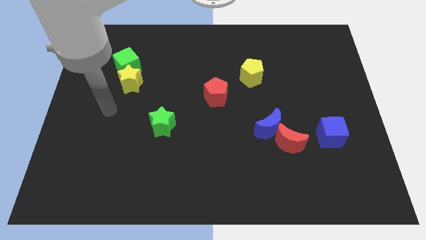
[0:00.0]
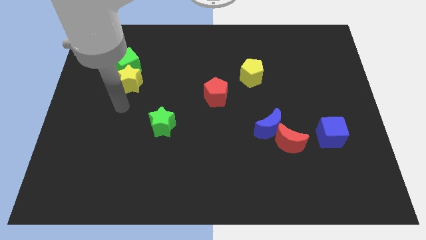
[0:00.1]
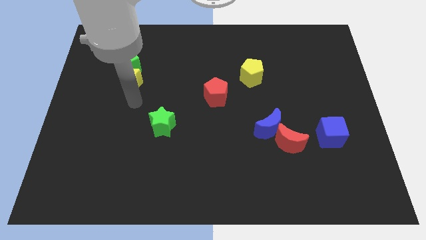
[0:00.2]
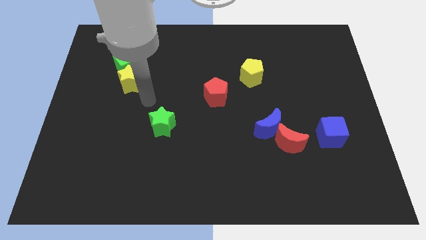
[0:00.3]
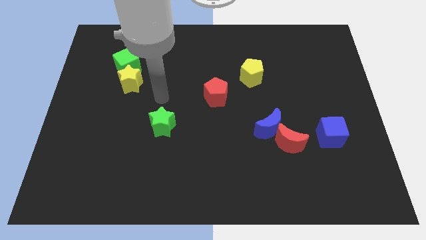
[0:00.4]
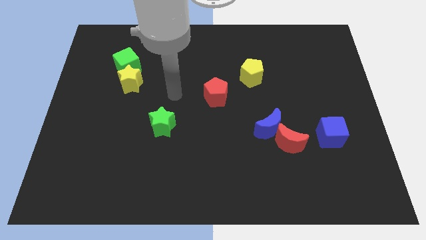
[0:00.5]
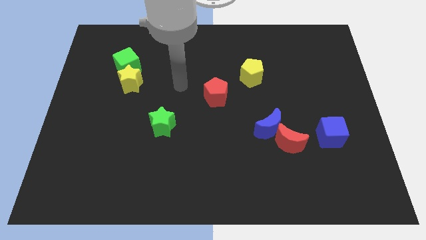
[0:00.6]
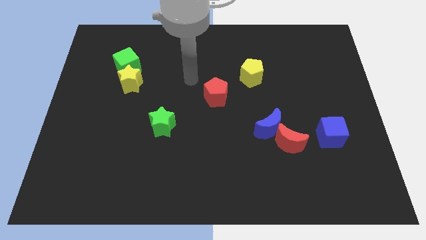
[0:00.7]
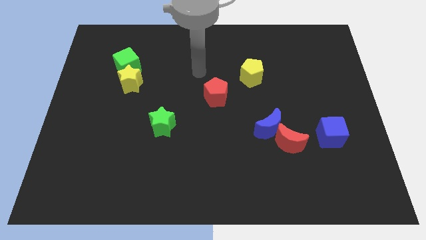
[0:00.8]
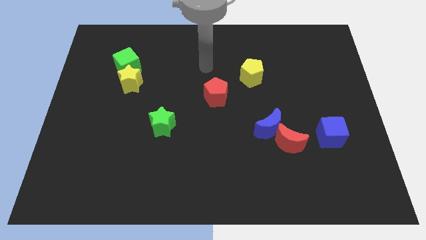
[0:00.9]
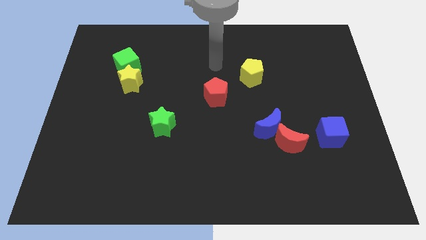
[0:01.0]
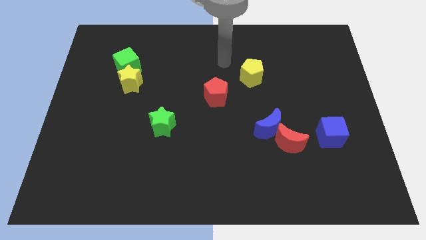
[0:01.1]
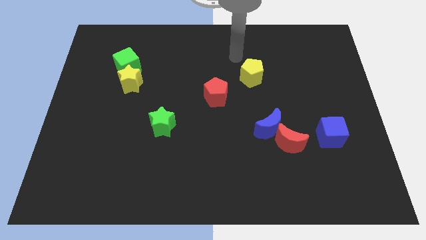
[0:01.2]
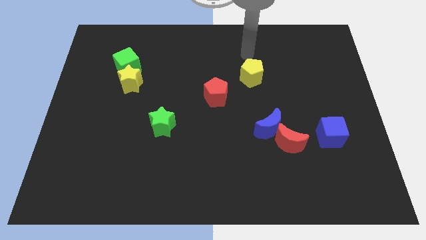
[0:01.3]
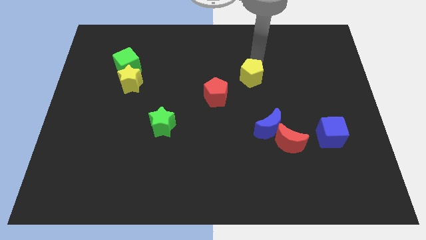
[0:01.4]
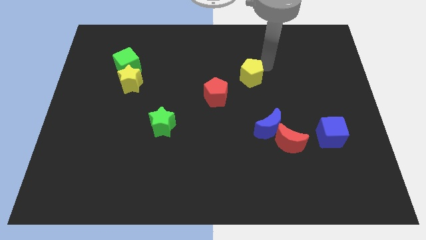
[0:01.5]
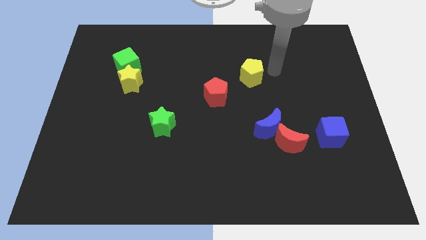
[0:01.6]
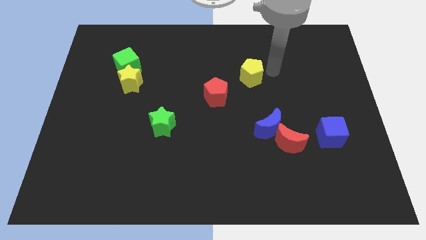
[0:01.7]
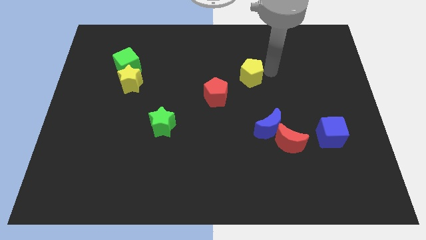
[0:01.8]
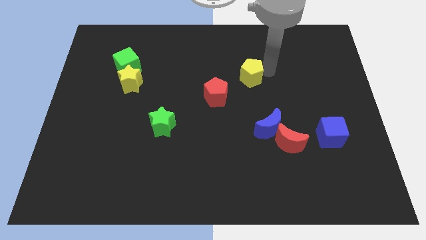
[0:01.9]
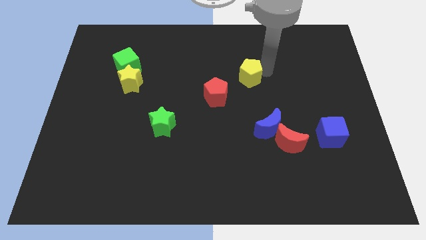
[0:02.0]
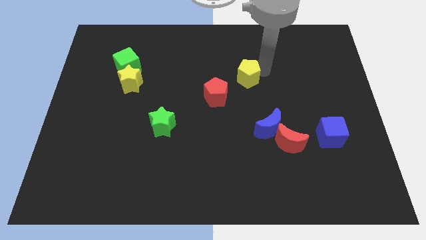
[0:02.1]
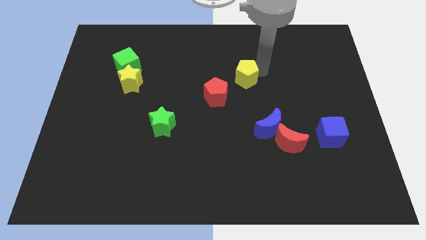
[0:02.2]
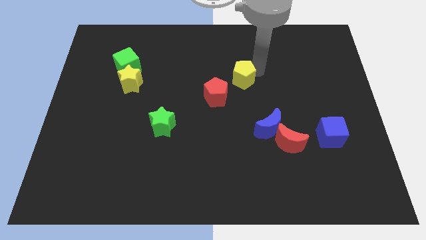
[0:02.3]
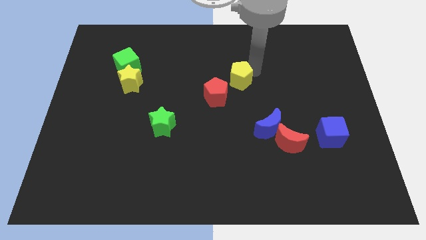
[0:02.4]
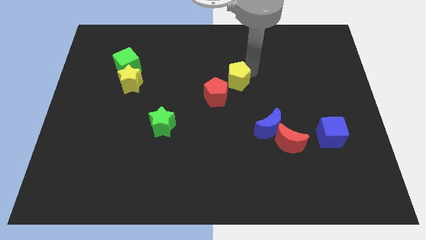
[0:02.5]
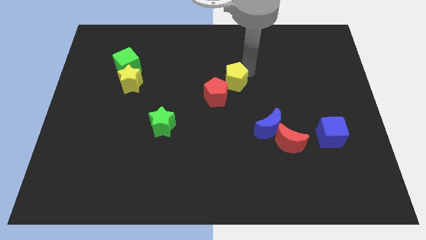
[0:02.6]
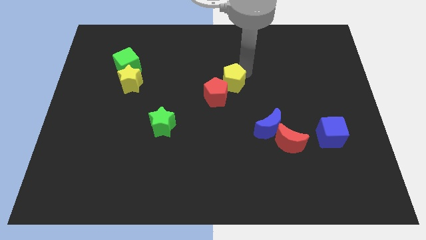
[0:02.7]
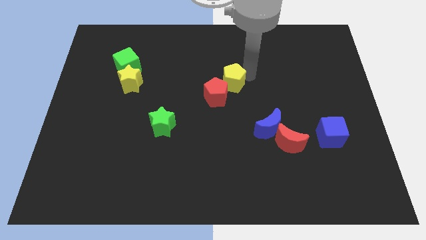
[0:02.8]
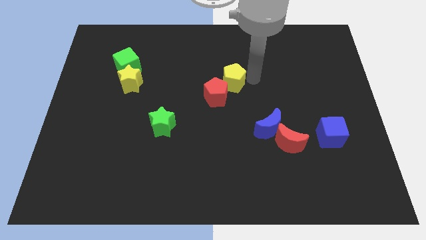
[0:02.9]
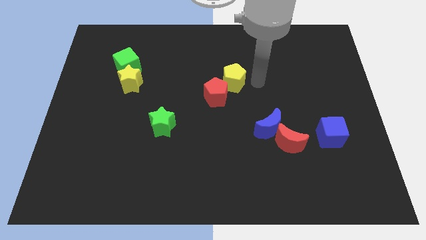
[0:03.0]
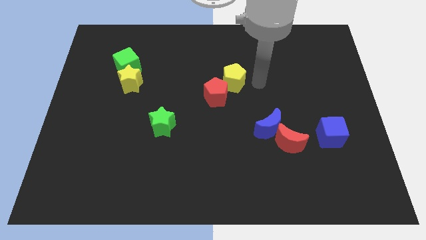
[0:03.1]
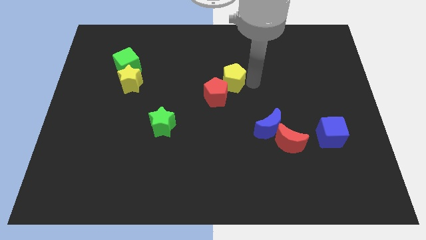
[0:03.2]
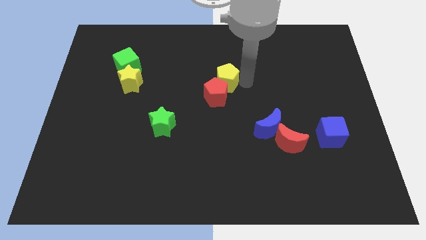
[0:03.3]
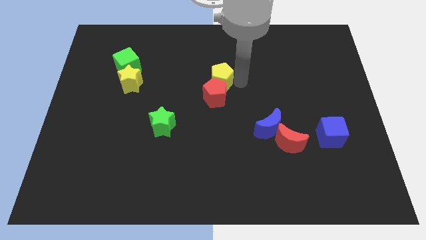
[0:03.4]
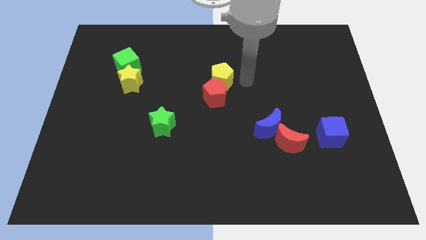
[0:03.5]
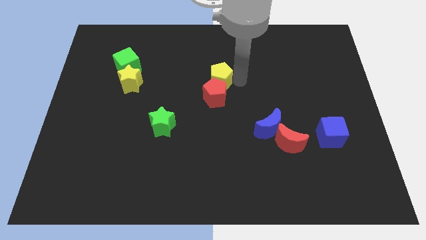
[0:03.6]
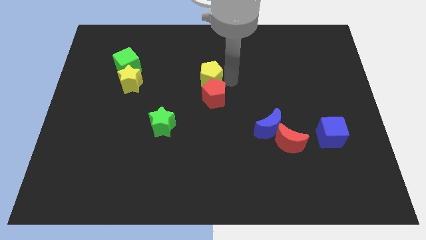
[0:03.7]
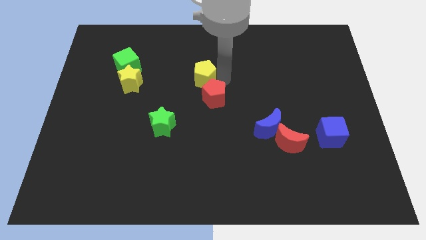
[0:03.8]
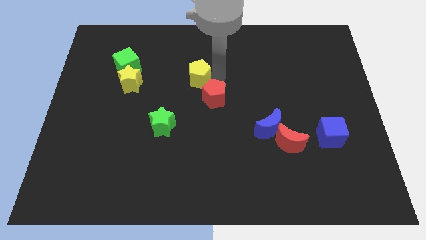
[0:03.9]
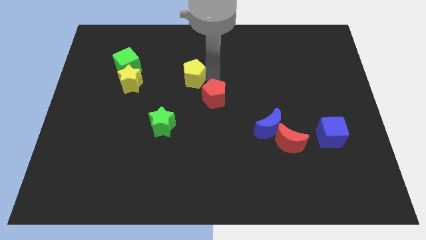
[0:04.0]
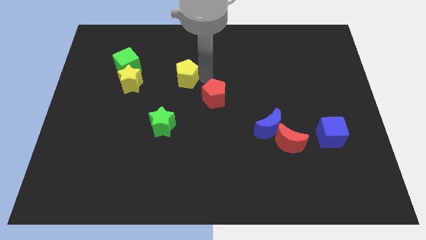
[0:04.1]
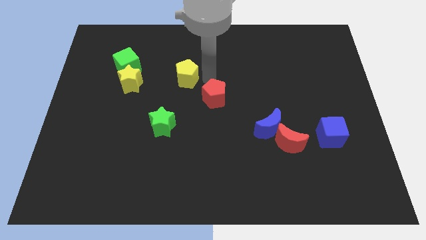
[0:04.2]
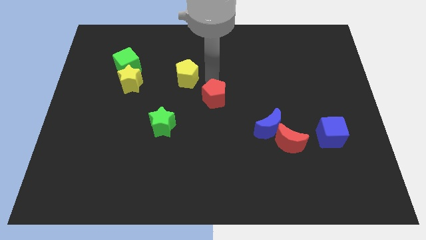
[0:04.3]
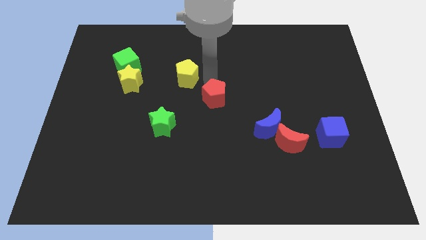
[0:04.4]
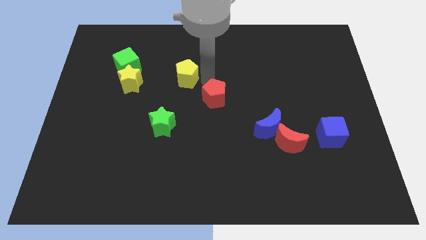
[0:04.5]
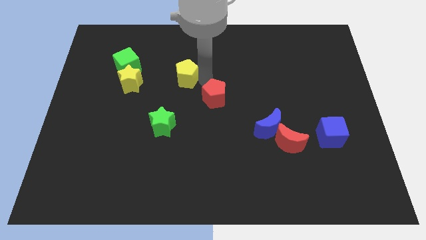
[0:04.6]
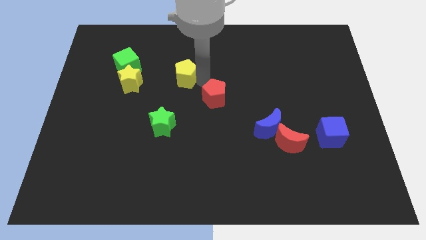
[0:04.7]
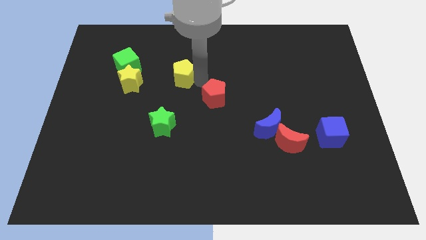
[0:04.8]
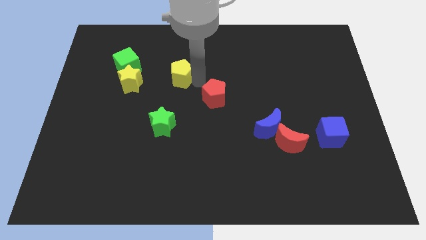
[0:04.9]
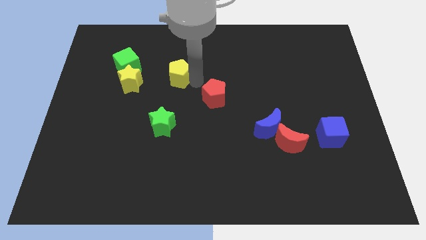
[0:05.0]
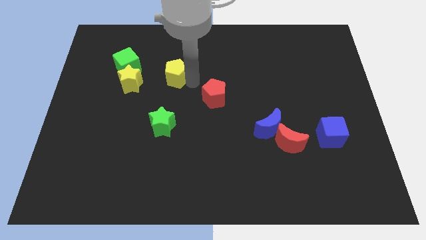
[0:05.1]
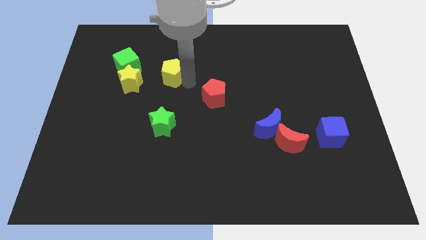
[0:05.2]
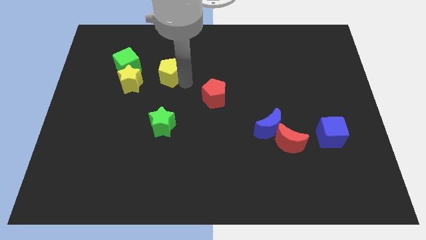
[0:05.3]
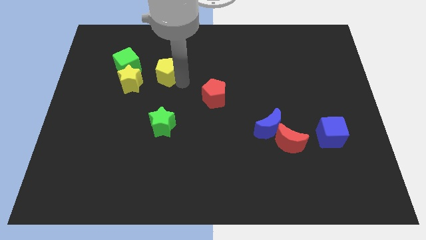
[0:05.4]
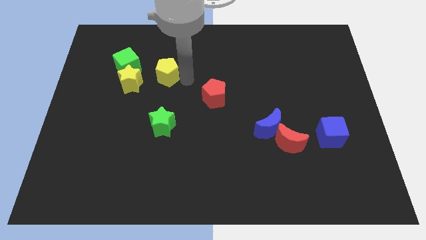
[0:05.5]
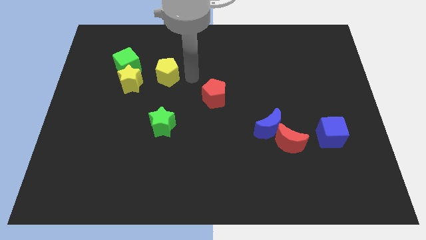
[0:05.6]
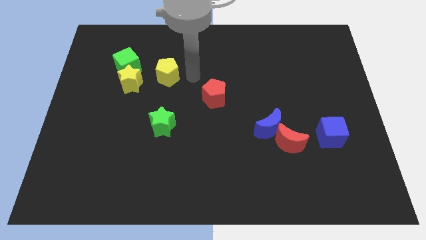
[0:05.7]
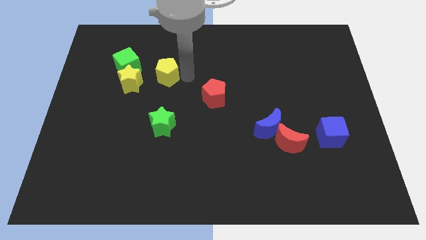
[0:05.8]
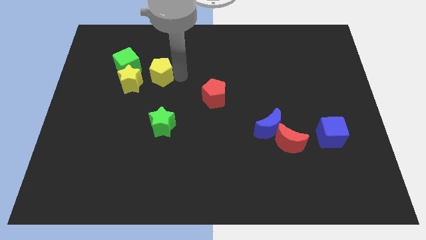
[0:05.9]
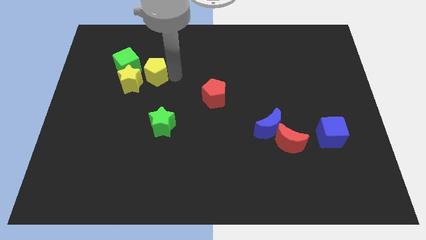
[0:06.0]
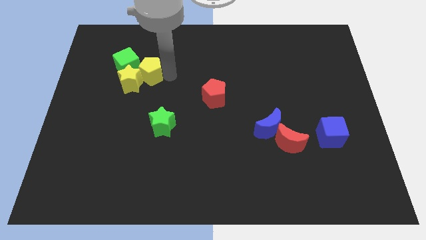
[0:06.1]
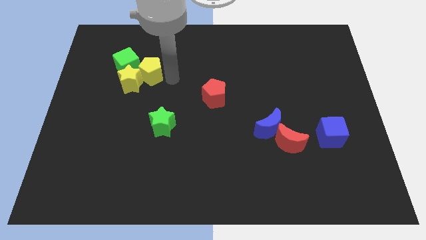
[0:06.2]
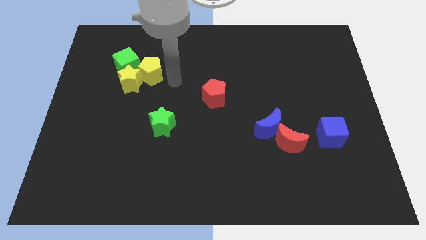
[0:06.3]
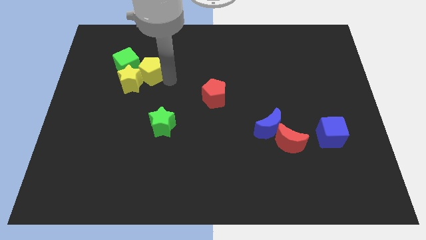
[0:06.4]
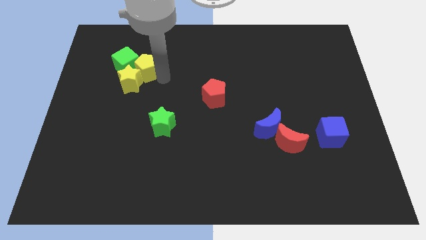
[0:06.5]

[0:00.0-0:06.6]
put the yellow pentagon close to the green cube

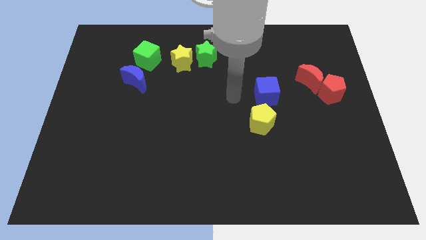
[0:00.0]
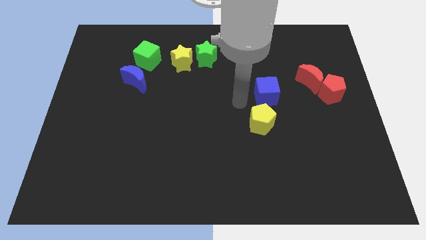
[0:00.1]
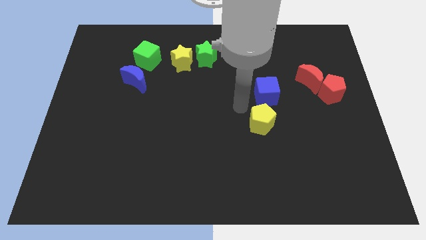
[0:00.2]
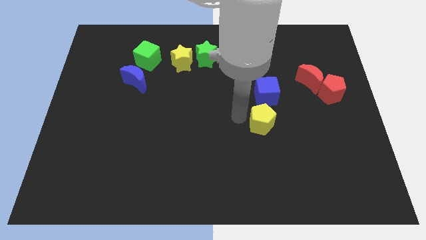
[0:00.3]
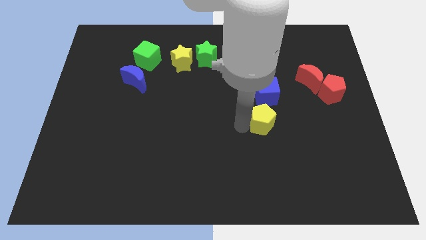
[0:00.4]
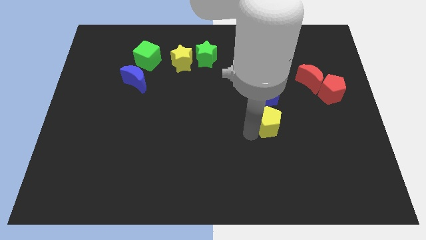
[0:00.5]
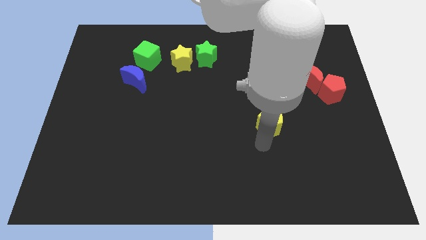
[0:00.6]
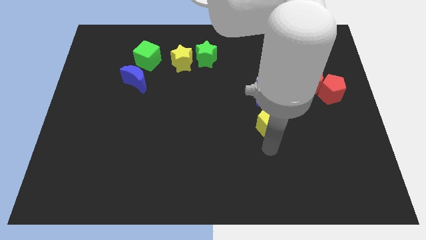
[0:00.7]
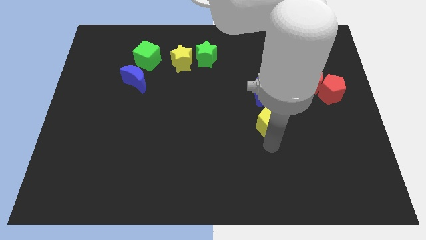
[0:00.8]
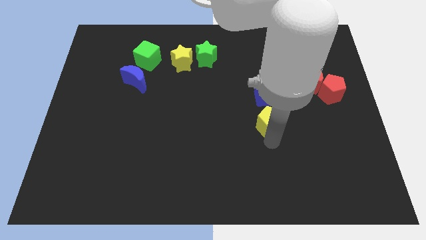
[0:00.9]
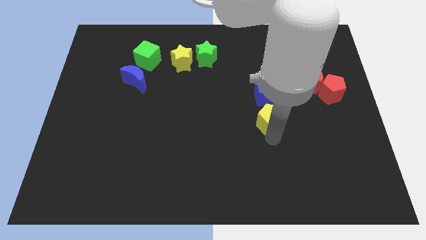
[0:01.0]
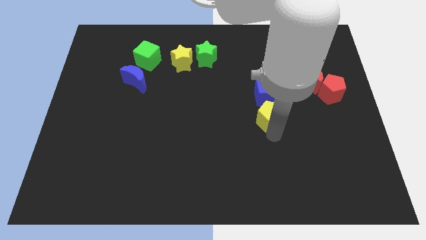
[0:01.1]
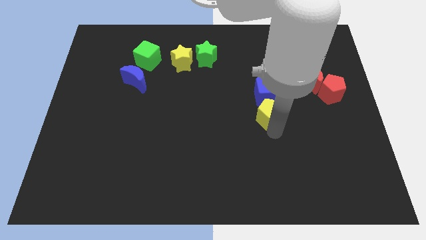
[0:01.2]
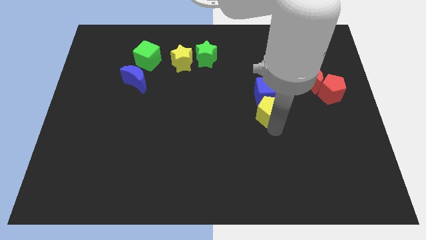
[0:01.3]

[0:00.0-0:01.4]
slide the yellow pentagon next to the blue cube
